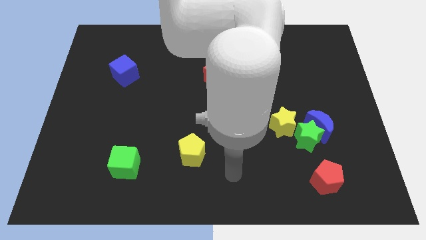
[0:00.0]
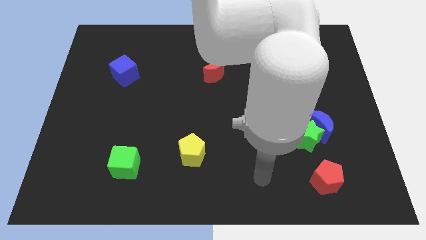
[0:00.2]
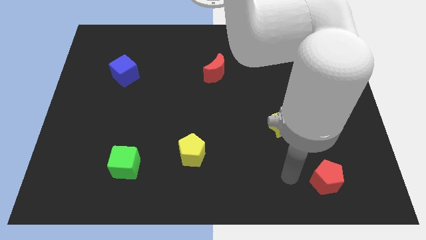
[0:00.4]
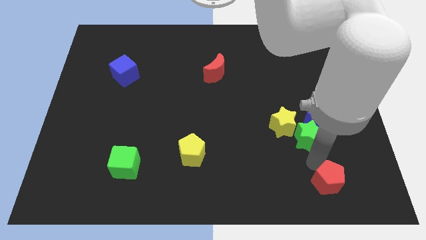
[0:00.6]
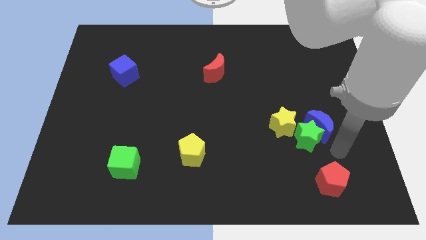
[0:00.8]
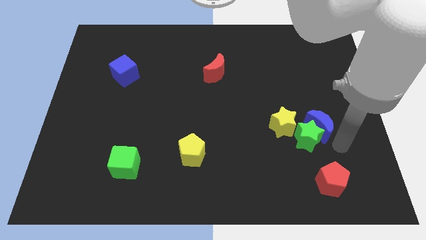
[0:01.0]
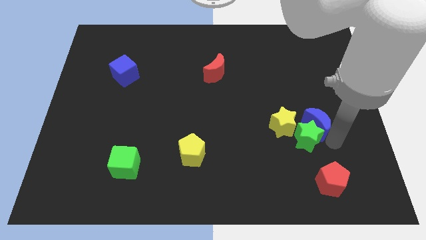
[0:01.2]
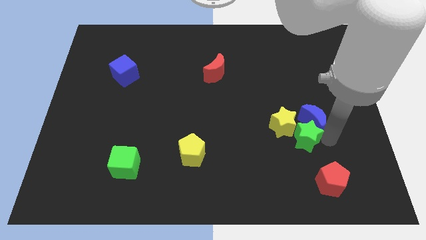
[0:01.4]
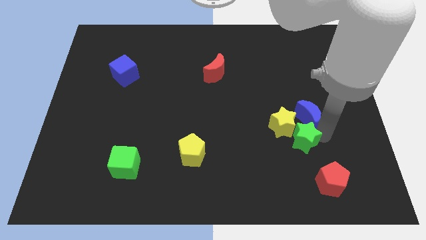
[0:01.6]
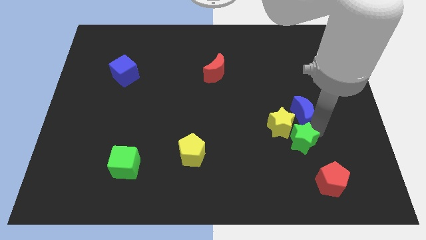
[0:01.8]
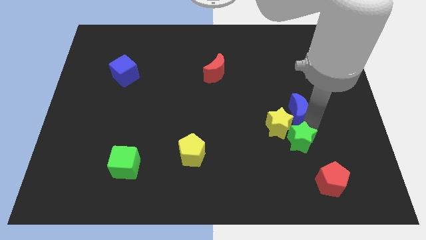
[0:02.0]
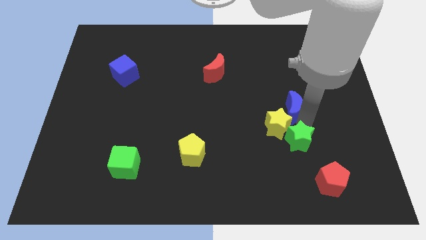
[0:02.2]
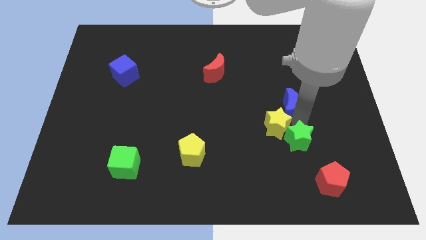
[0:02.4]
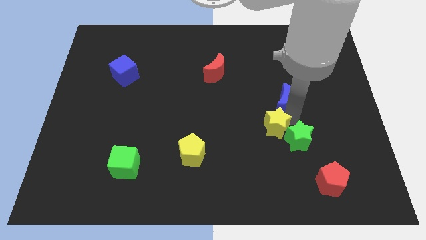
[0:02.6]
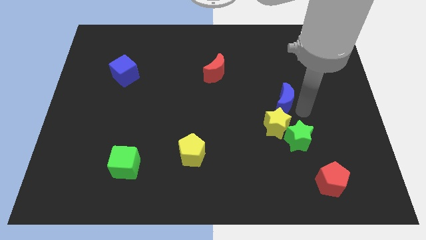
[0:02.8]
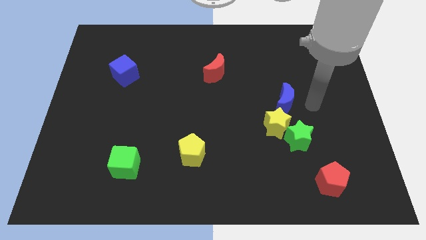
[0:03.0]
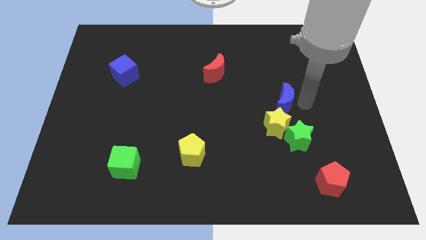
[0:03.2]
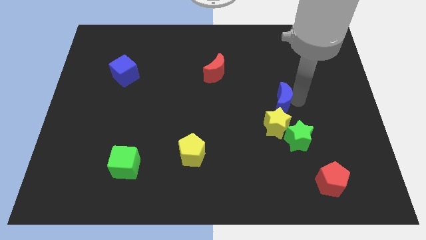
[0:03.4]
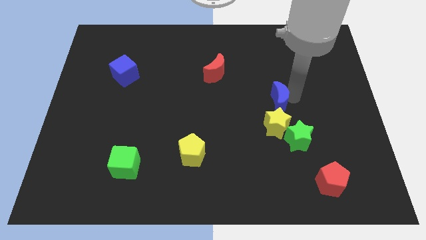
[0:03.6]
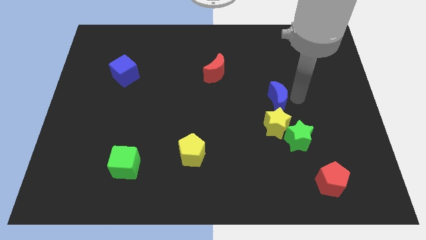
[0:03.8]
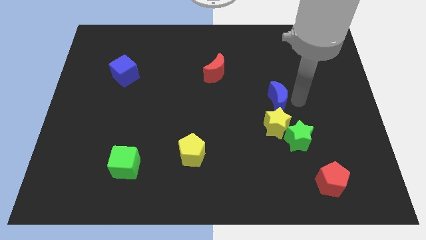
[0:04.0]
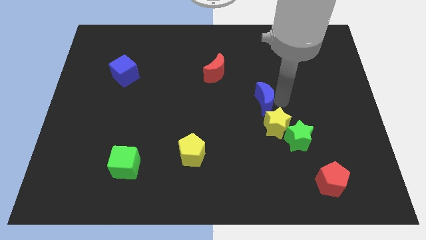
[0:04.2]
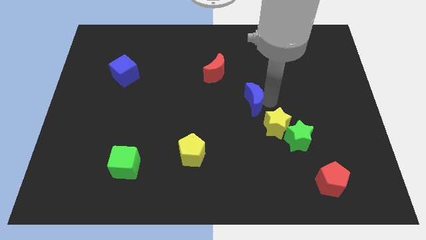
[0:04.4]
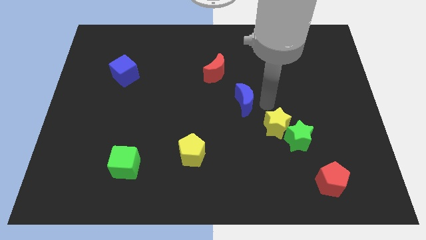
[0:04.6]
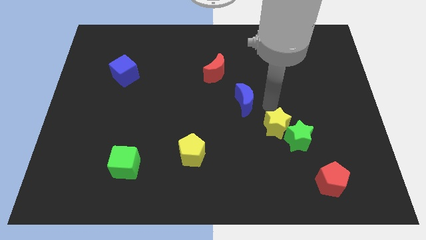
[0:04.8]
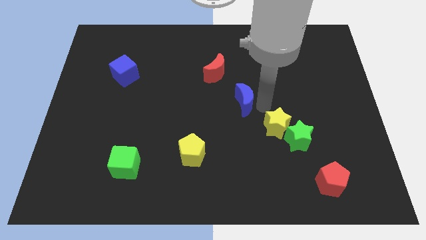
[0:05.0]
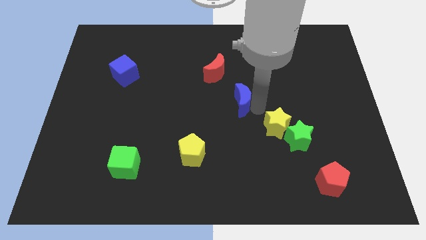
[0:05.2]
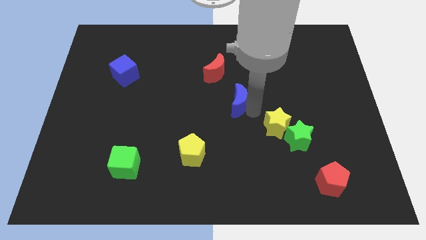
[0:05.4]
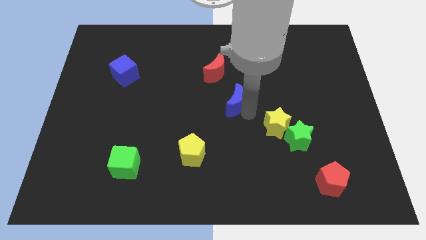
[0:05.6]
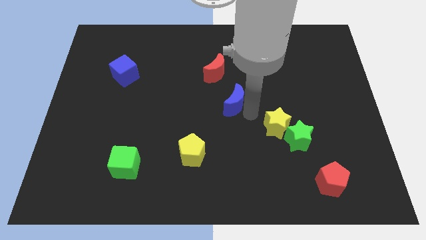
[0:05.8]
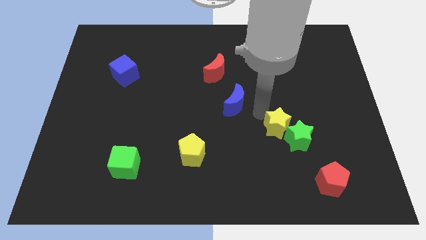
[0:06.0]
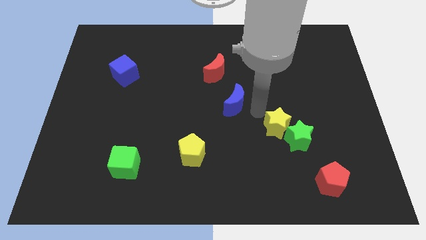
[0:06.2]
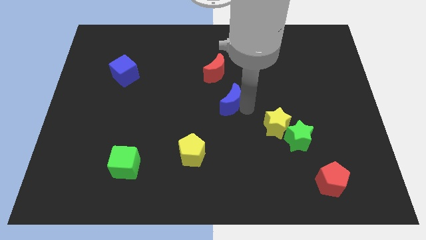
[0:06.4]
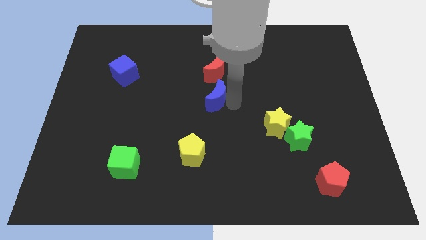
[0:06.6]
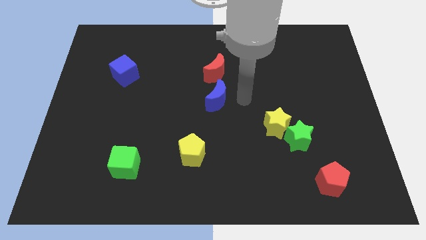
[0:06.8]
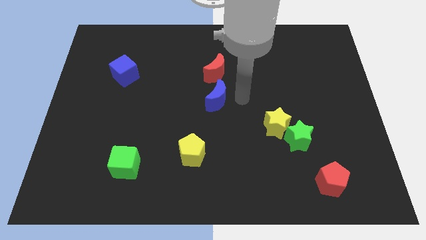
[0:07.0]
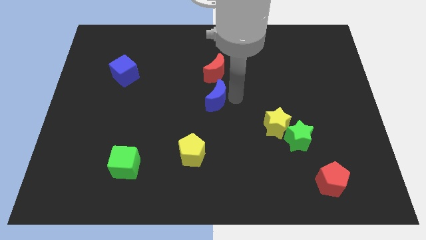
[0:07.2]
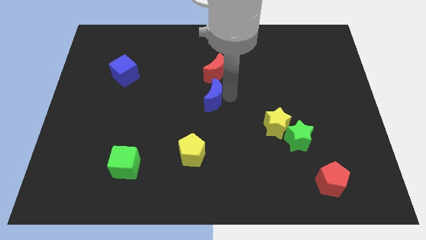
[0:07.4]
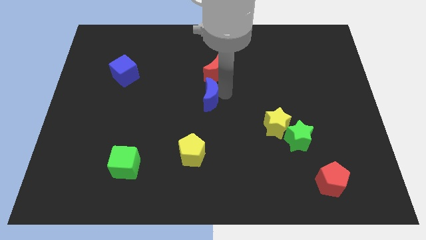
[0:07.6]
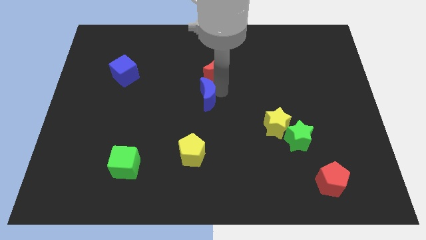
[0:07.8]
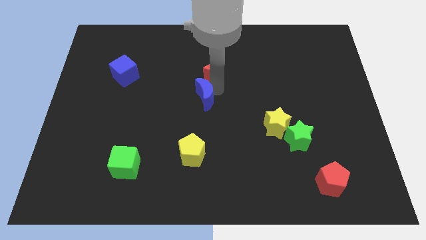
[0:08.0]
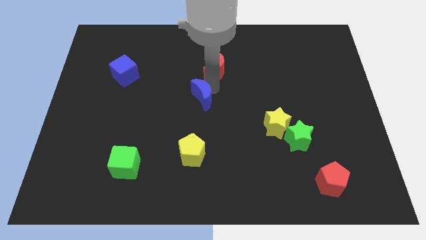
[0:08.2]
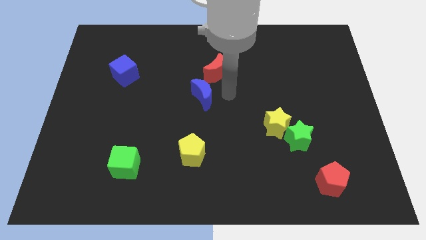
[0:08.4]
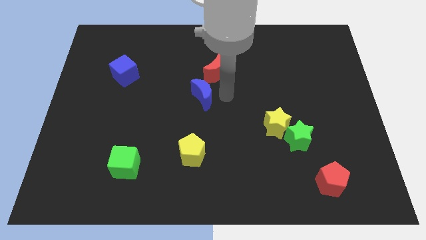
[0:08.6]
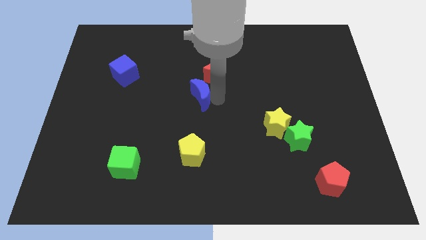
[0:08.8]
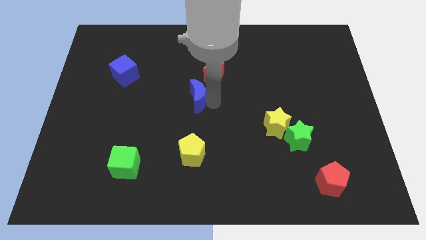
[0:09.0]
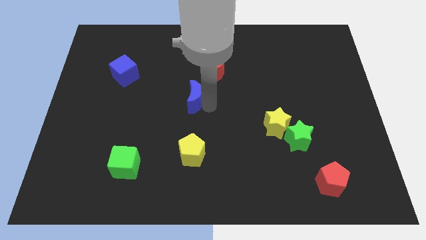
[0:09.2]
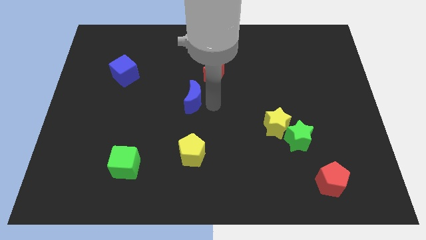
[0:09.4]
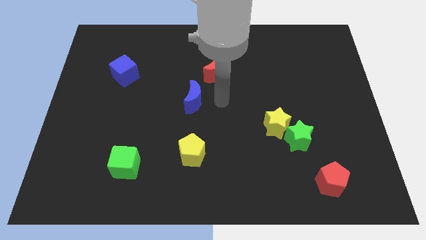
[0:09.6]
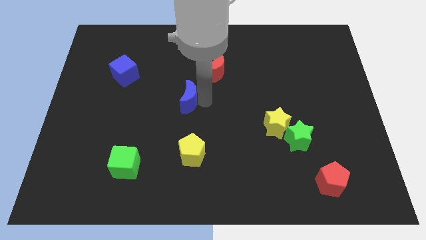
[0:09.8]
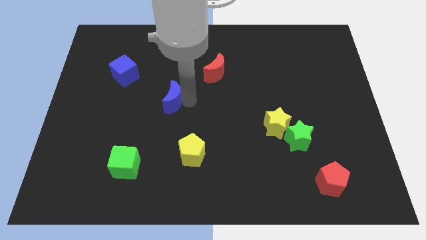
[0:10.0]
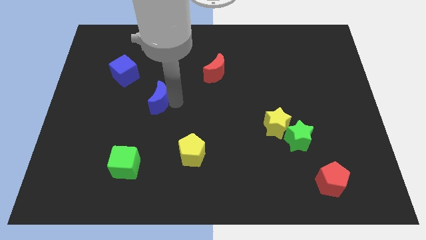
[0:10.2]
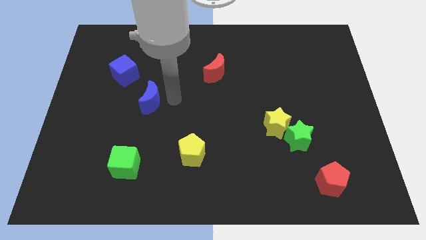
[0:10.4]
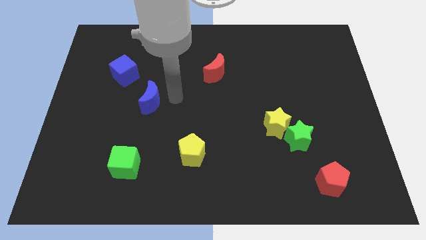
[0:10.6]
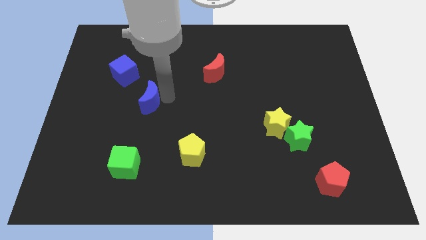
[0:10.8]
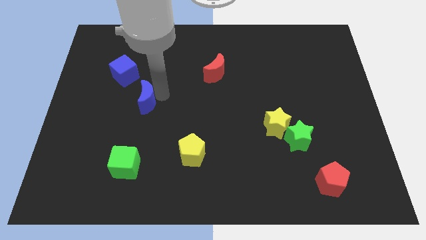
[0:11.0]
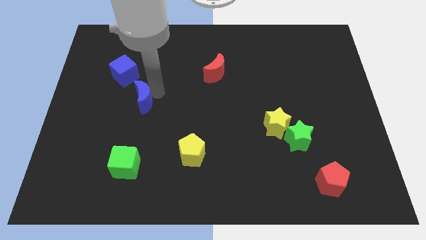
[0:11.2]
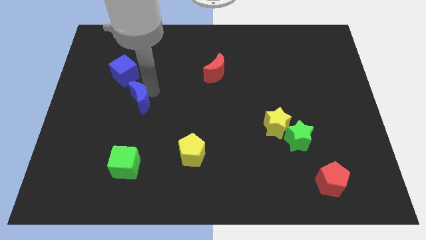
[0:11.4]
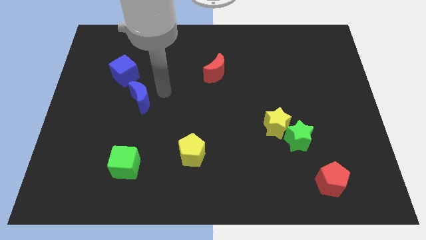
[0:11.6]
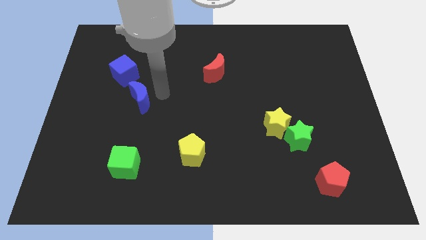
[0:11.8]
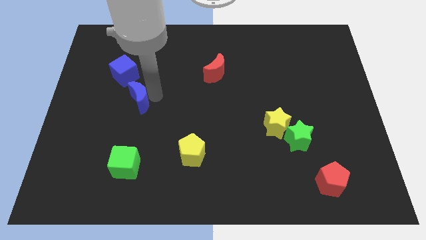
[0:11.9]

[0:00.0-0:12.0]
push the blue moon to the bottom side of the blue cube

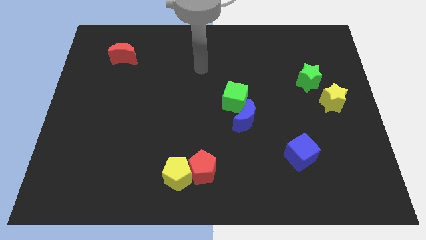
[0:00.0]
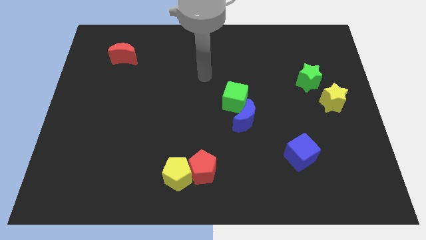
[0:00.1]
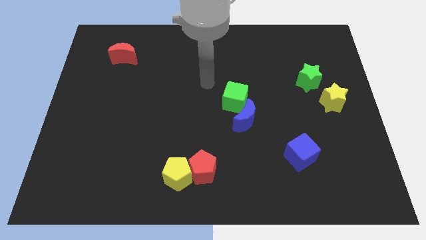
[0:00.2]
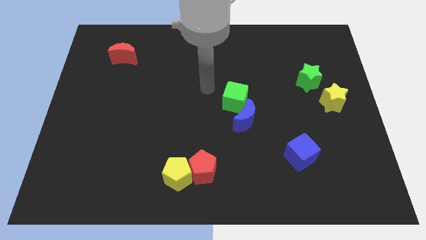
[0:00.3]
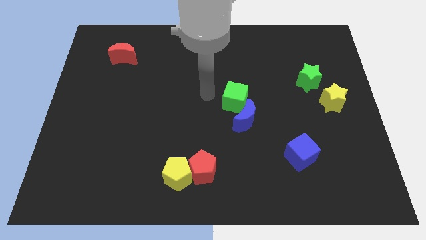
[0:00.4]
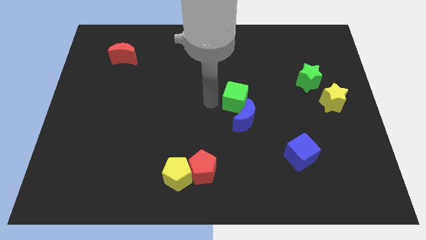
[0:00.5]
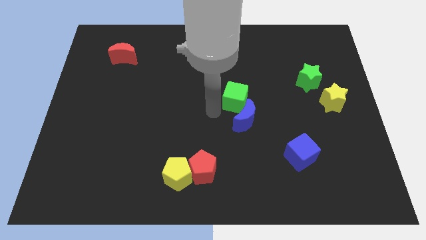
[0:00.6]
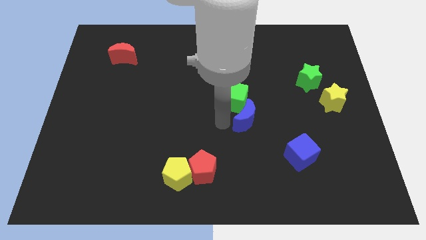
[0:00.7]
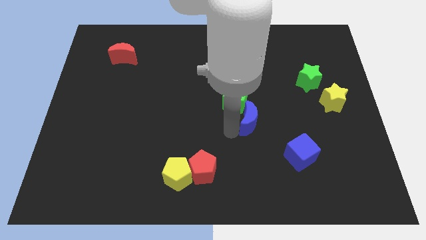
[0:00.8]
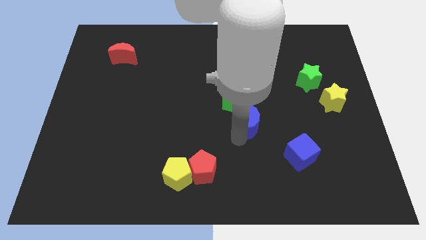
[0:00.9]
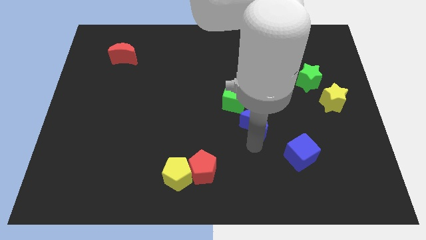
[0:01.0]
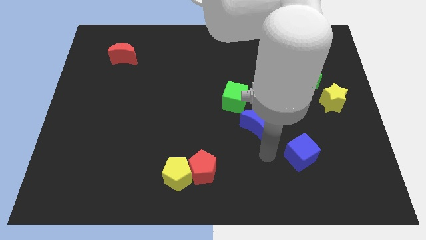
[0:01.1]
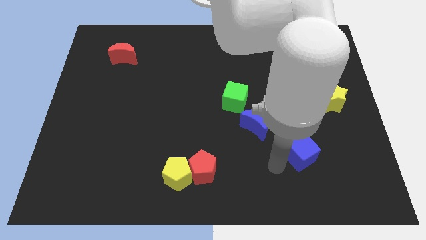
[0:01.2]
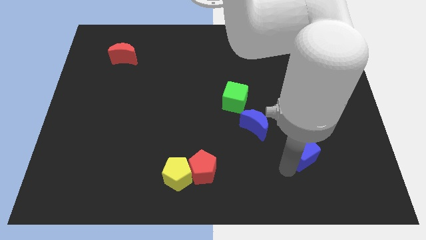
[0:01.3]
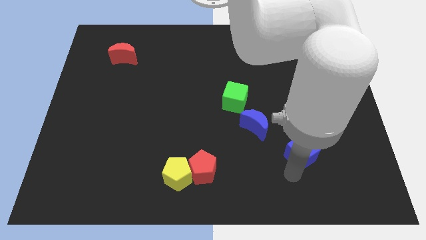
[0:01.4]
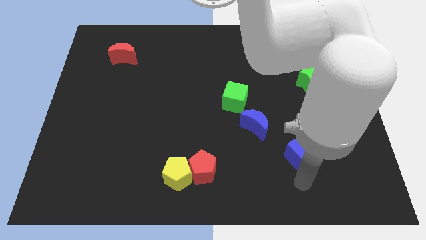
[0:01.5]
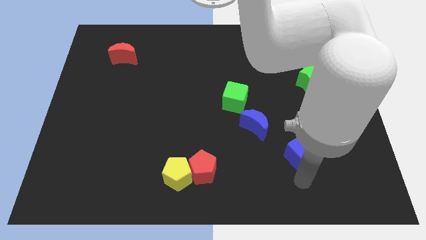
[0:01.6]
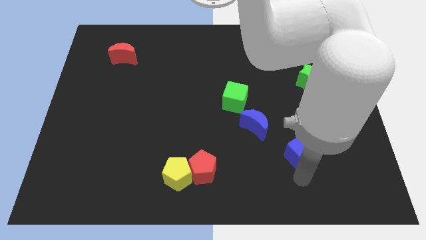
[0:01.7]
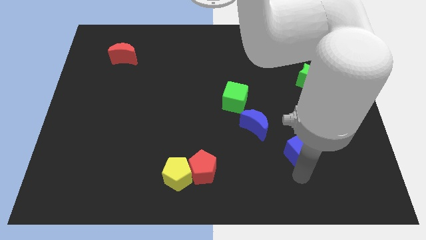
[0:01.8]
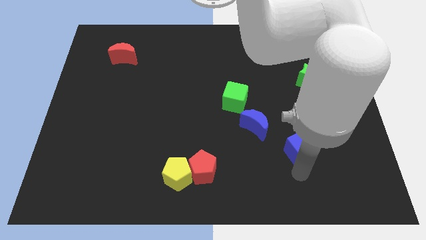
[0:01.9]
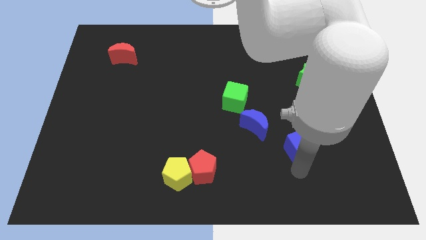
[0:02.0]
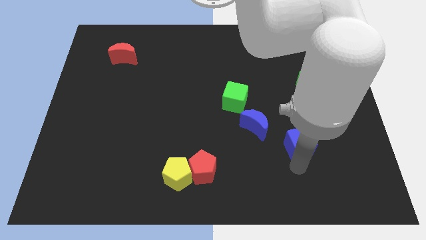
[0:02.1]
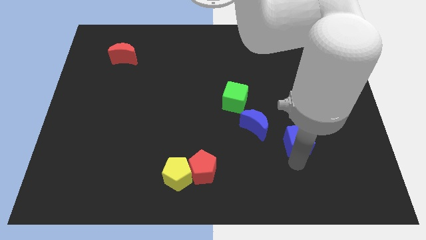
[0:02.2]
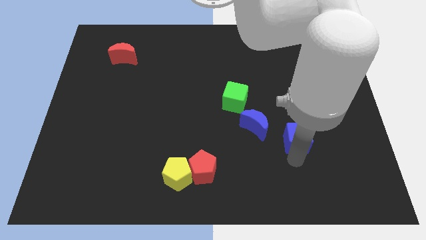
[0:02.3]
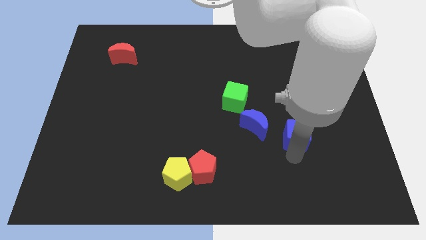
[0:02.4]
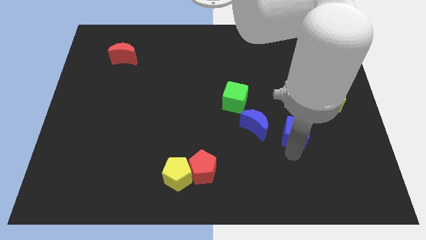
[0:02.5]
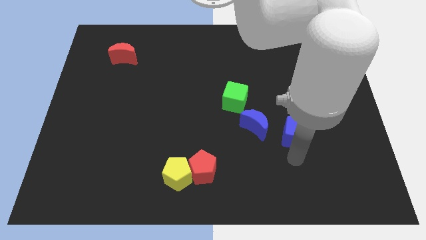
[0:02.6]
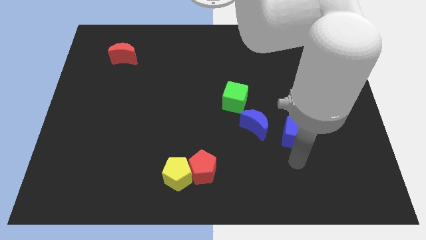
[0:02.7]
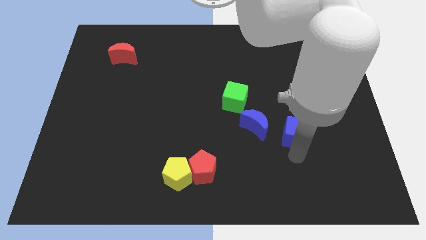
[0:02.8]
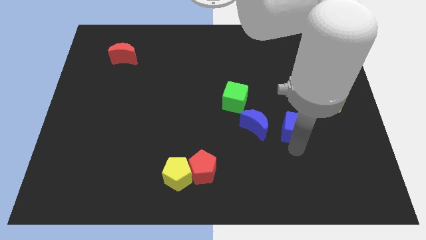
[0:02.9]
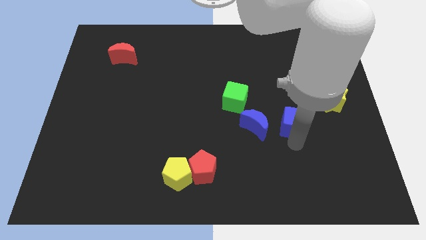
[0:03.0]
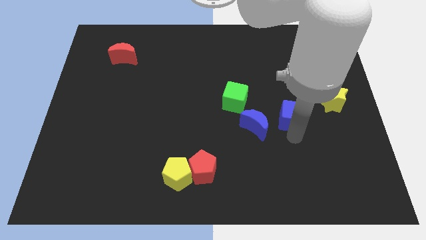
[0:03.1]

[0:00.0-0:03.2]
move the blue cube to the left of the yellow star
